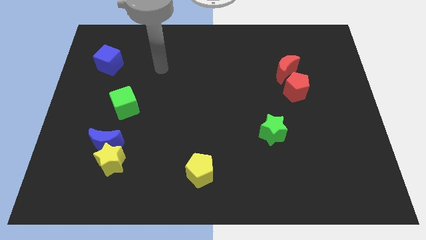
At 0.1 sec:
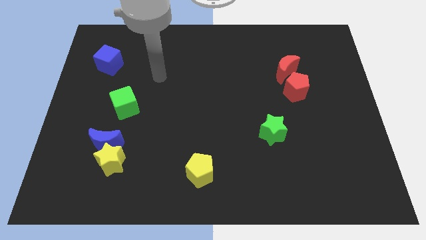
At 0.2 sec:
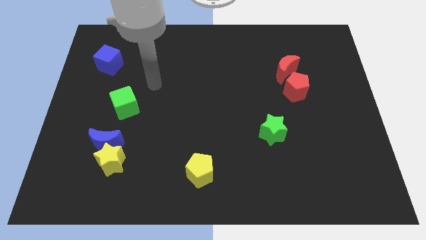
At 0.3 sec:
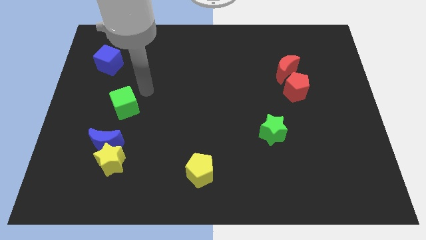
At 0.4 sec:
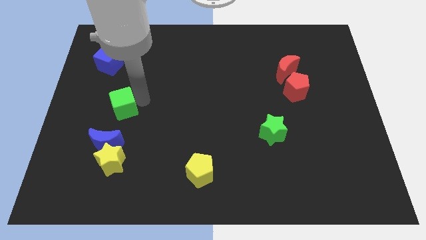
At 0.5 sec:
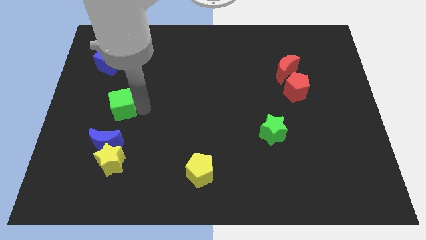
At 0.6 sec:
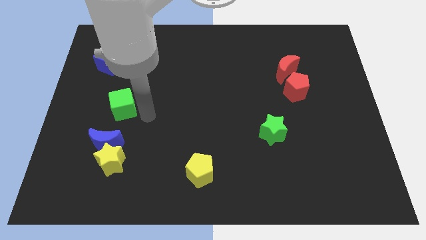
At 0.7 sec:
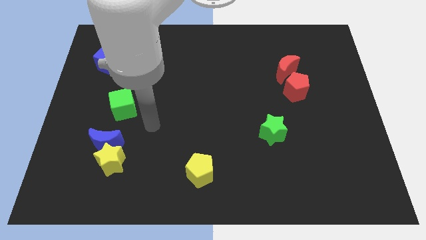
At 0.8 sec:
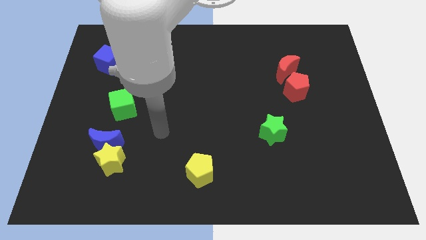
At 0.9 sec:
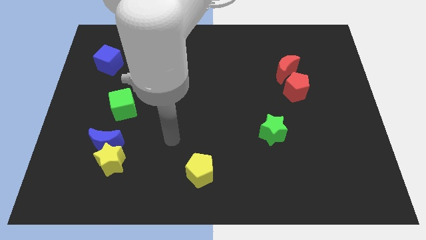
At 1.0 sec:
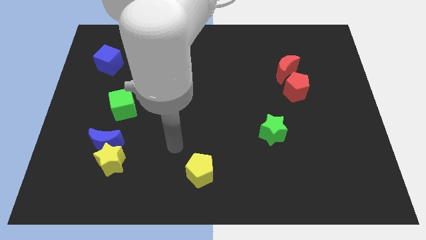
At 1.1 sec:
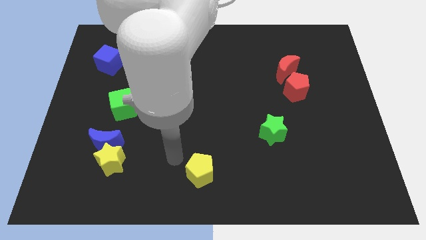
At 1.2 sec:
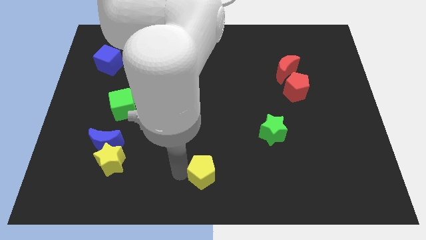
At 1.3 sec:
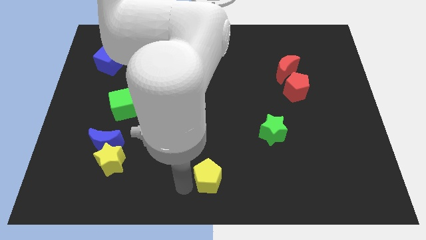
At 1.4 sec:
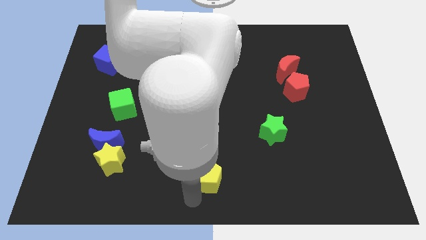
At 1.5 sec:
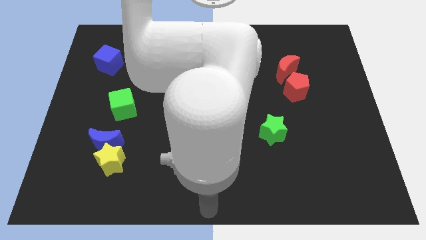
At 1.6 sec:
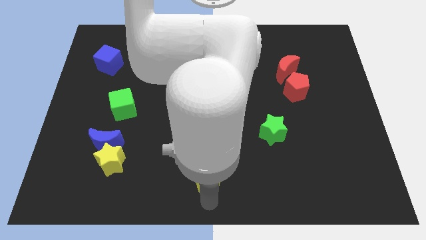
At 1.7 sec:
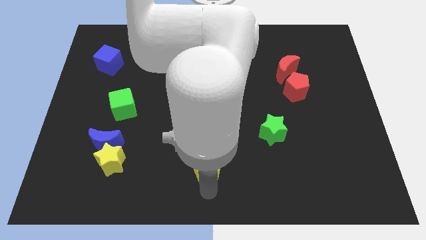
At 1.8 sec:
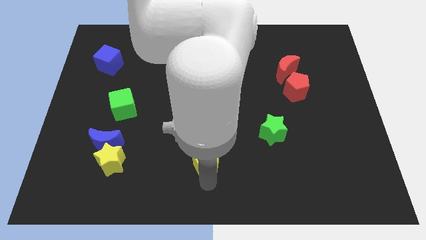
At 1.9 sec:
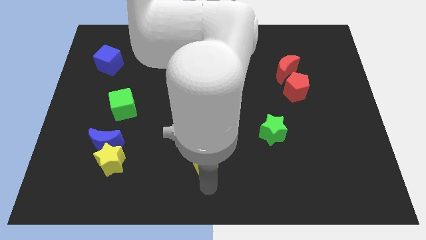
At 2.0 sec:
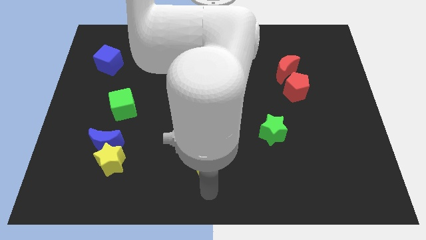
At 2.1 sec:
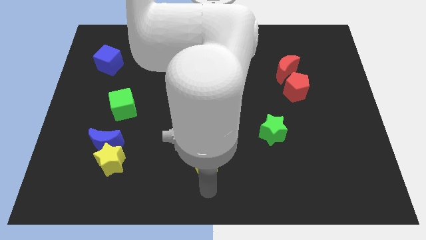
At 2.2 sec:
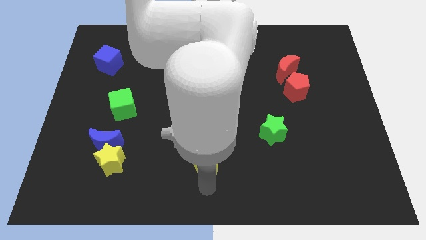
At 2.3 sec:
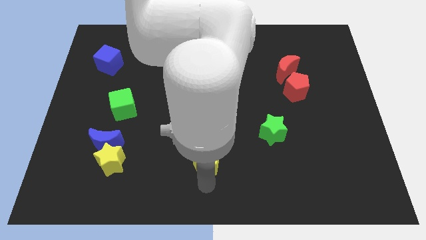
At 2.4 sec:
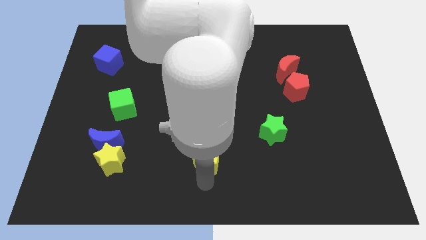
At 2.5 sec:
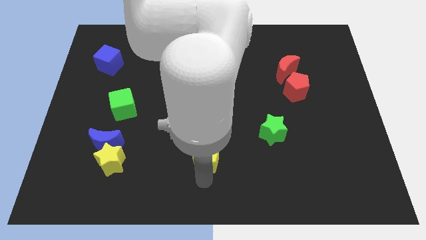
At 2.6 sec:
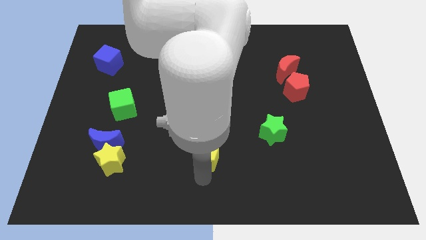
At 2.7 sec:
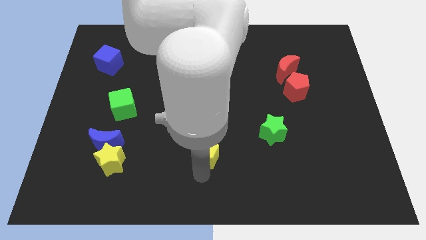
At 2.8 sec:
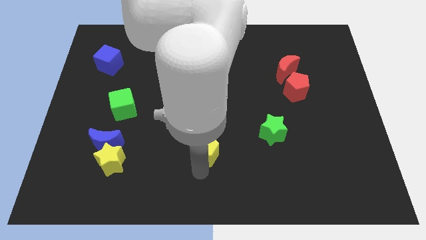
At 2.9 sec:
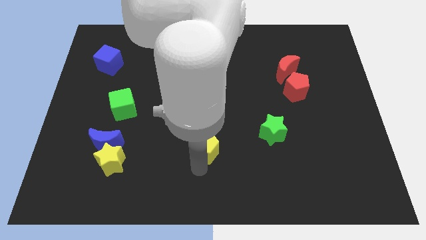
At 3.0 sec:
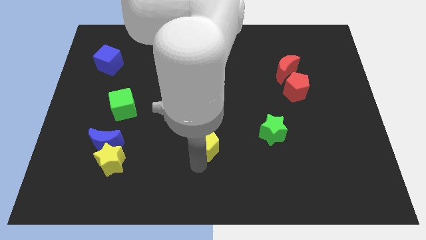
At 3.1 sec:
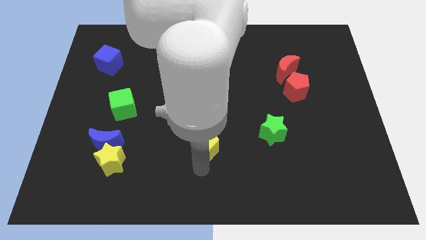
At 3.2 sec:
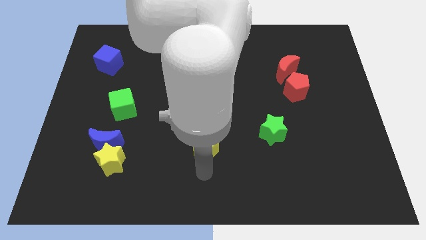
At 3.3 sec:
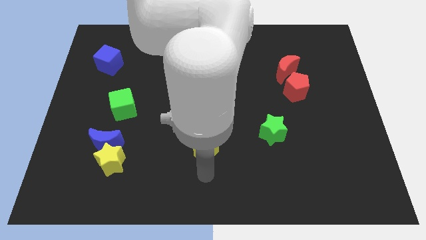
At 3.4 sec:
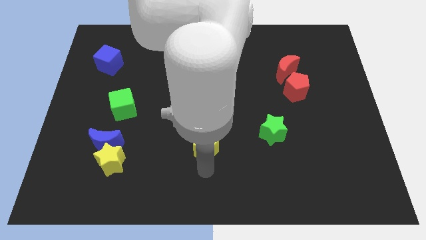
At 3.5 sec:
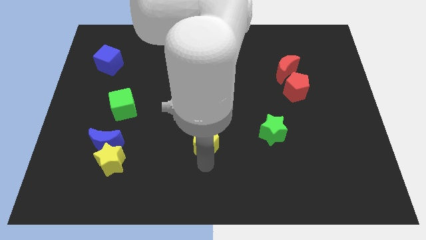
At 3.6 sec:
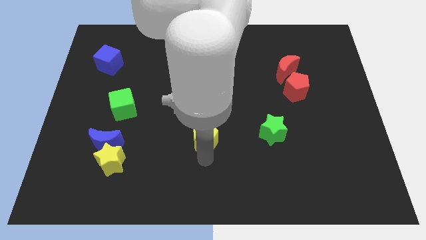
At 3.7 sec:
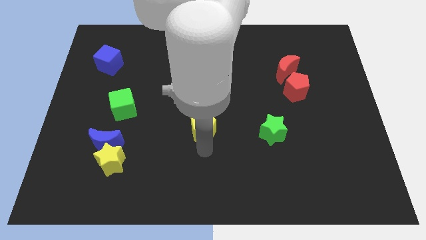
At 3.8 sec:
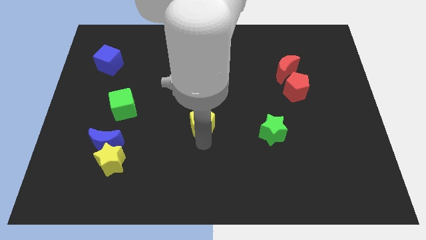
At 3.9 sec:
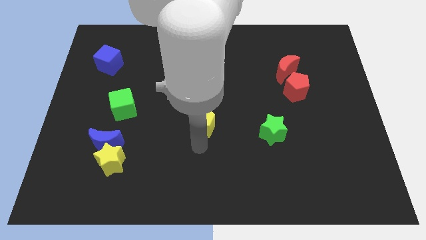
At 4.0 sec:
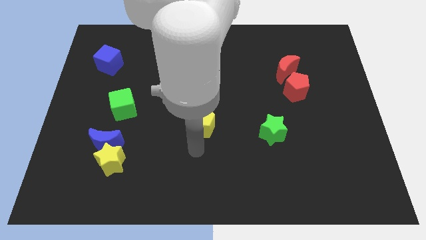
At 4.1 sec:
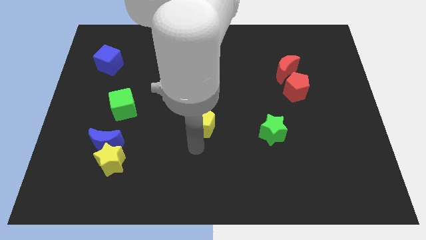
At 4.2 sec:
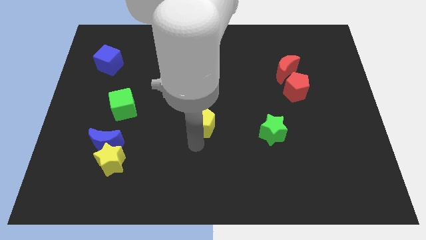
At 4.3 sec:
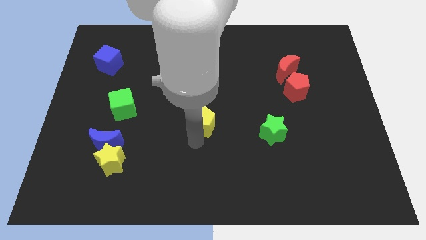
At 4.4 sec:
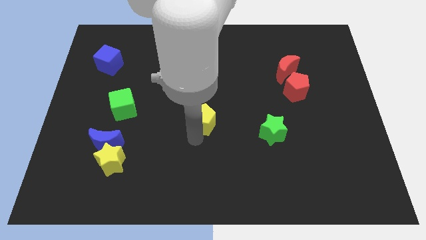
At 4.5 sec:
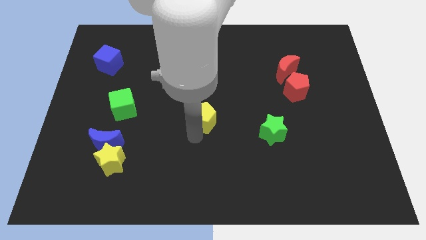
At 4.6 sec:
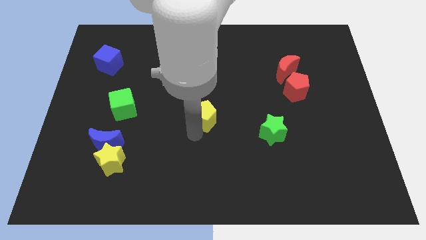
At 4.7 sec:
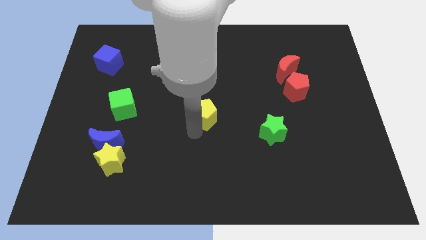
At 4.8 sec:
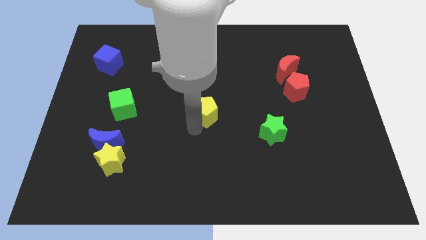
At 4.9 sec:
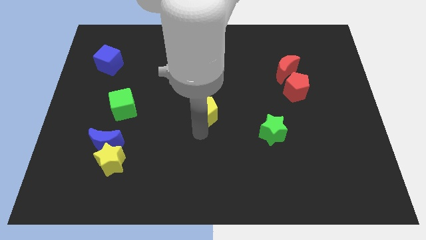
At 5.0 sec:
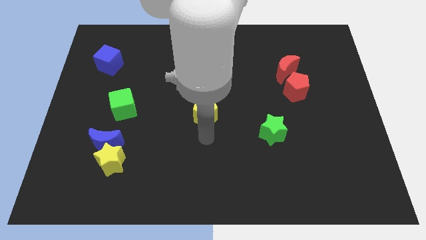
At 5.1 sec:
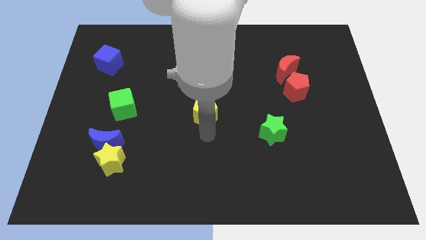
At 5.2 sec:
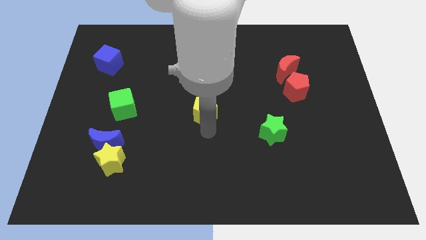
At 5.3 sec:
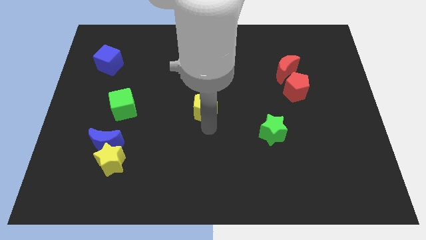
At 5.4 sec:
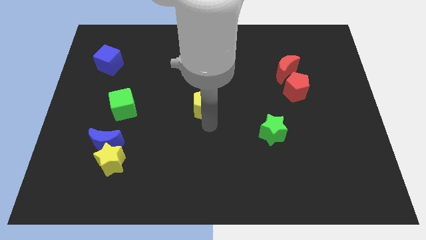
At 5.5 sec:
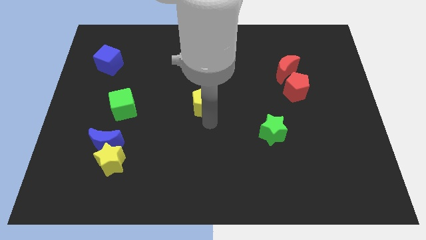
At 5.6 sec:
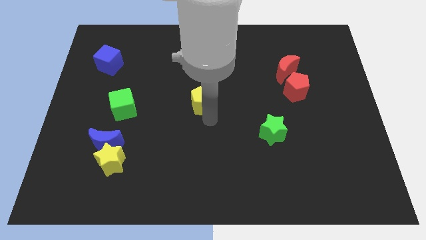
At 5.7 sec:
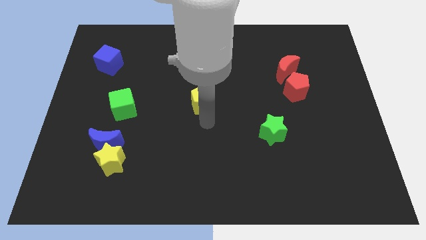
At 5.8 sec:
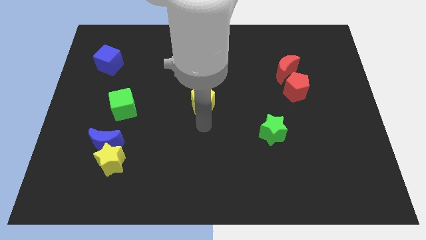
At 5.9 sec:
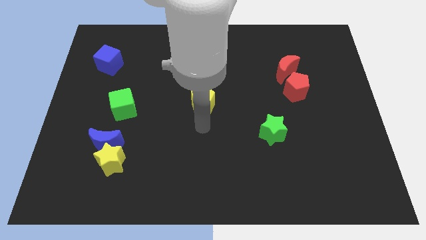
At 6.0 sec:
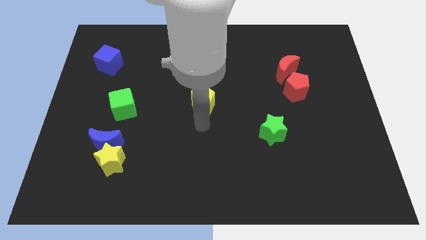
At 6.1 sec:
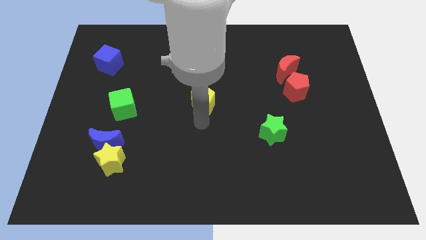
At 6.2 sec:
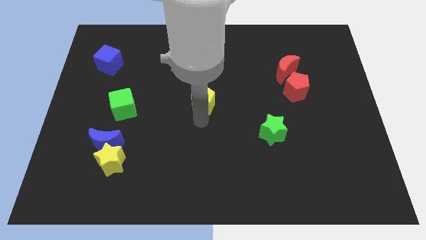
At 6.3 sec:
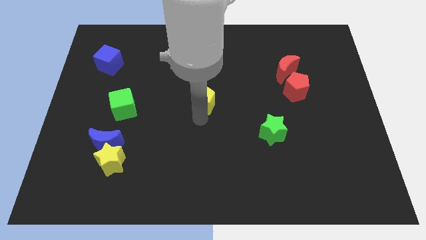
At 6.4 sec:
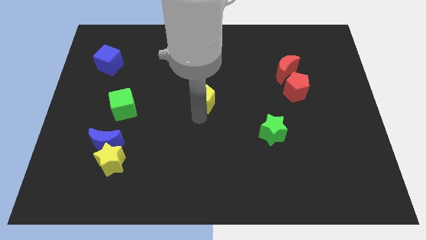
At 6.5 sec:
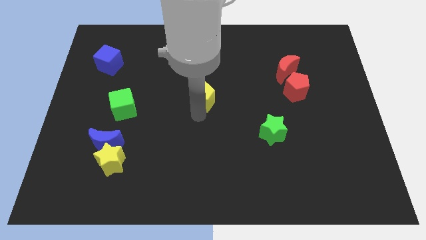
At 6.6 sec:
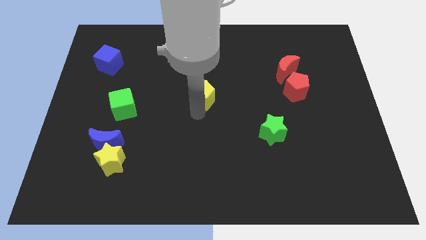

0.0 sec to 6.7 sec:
move the yellow pentagon up

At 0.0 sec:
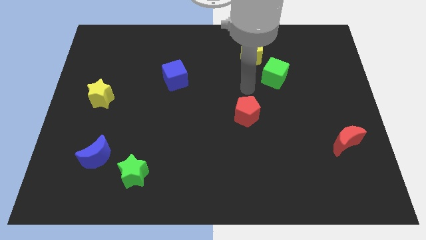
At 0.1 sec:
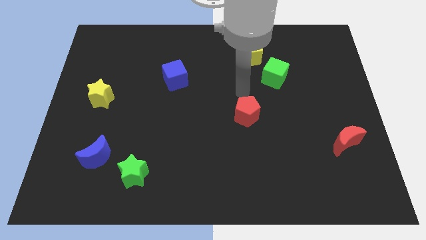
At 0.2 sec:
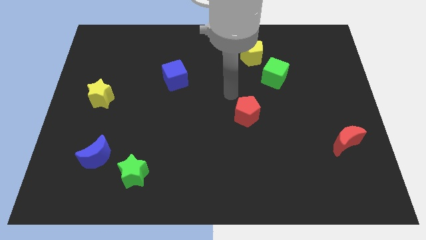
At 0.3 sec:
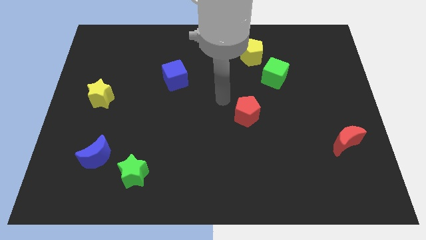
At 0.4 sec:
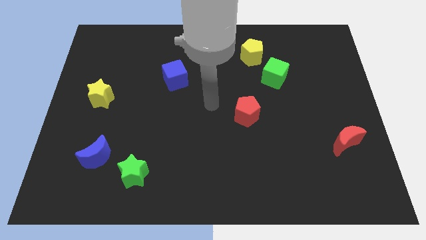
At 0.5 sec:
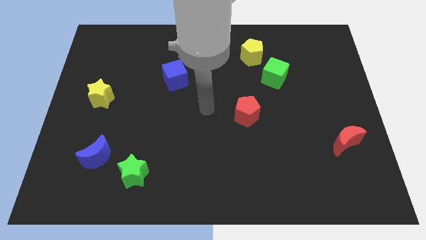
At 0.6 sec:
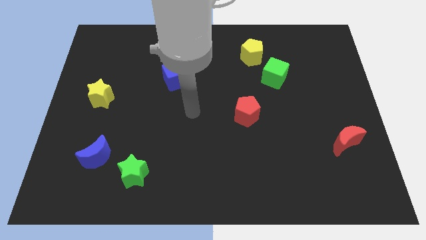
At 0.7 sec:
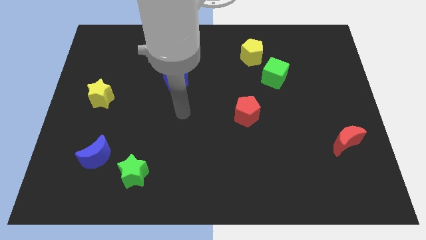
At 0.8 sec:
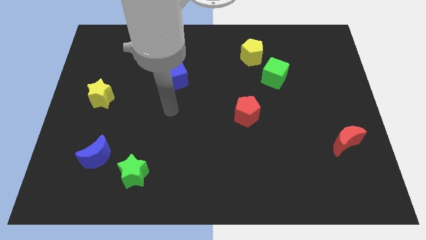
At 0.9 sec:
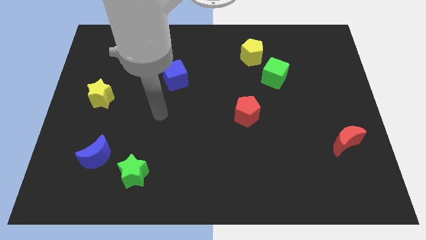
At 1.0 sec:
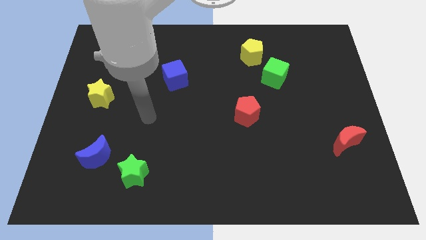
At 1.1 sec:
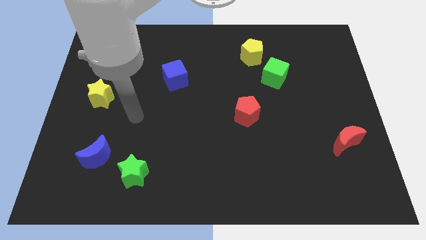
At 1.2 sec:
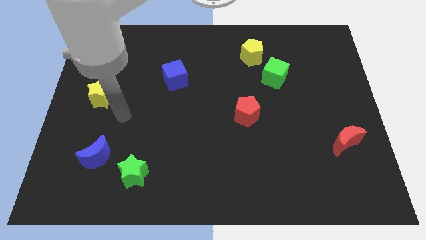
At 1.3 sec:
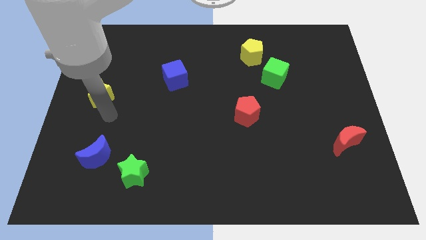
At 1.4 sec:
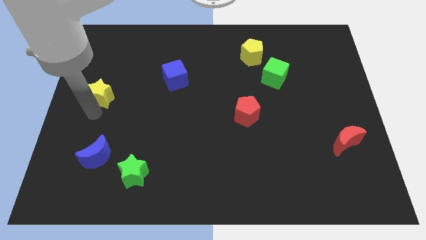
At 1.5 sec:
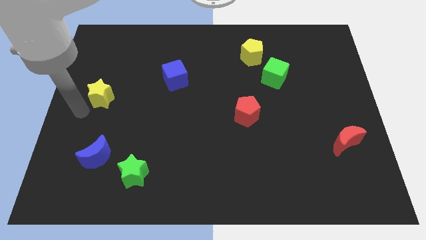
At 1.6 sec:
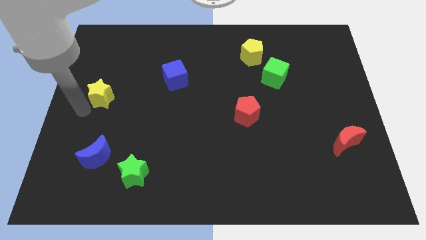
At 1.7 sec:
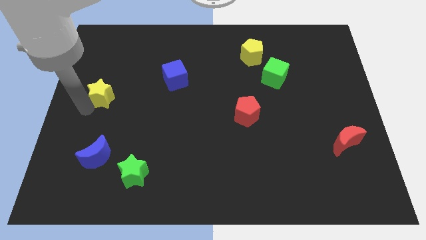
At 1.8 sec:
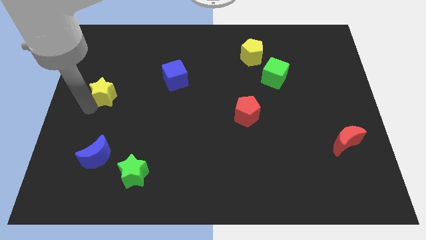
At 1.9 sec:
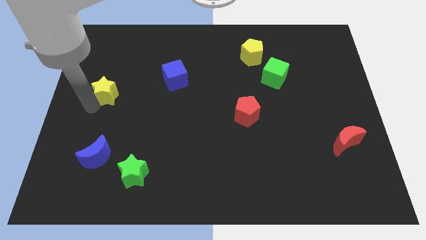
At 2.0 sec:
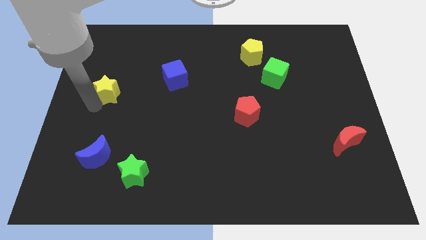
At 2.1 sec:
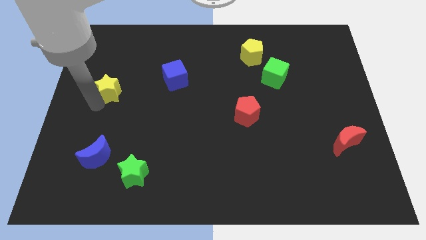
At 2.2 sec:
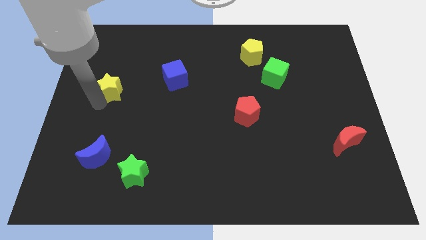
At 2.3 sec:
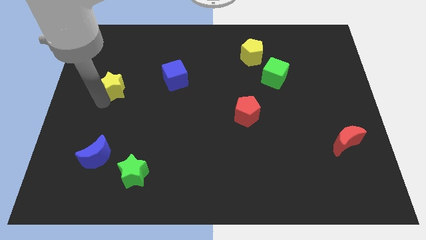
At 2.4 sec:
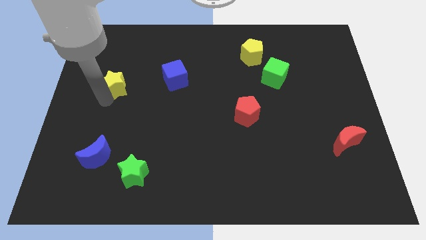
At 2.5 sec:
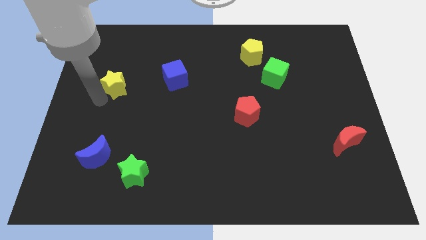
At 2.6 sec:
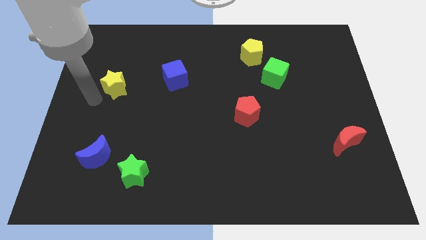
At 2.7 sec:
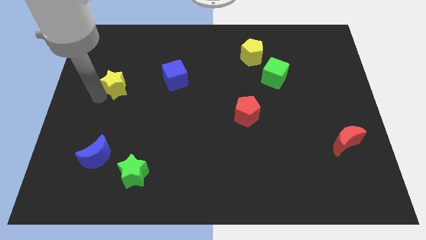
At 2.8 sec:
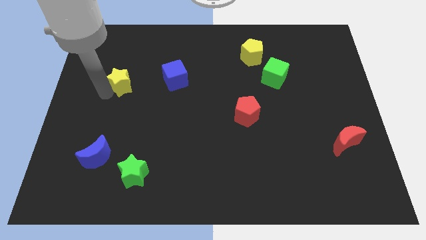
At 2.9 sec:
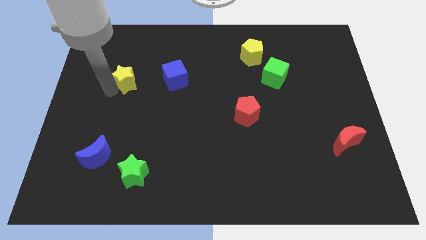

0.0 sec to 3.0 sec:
slightly slide the yellow star diagonally upwards and to the right
